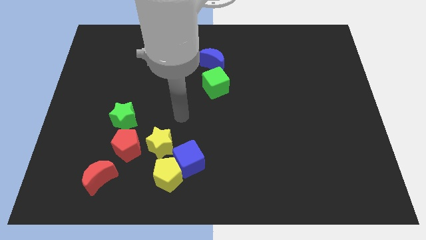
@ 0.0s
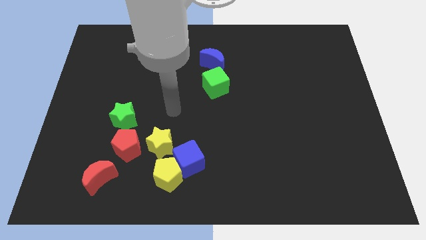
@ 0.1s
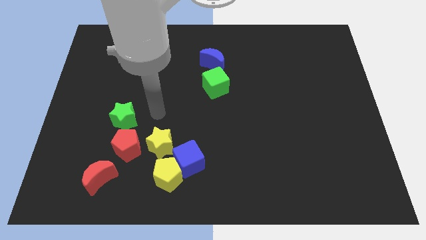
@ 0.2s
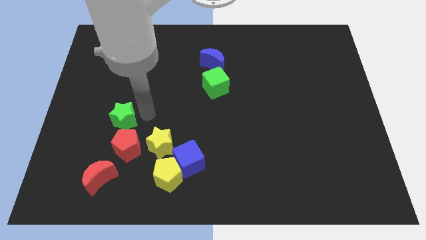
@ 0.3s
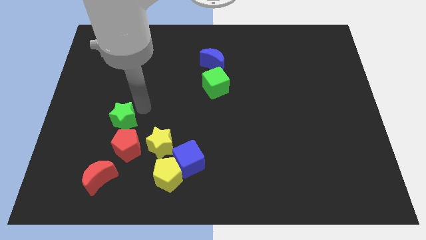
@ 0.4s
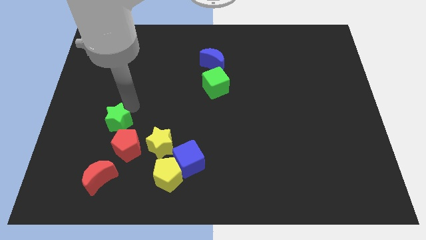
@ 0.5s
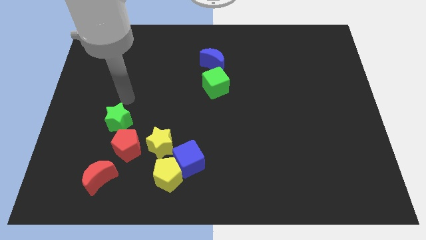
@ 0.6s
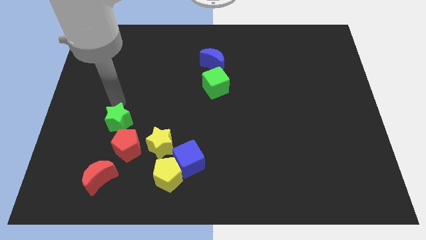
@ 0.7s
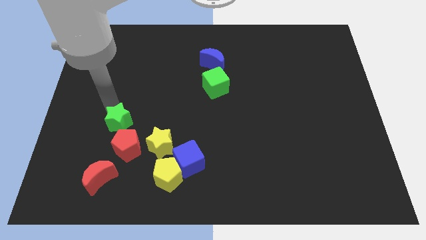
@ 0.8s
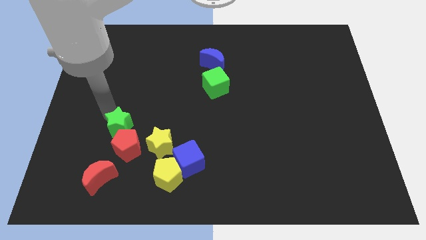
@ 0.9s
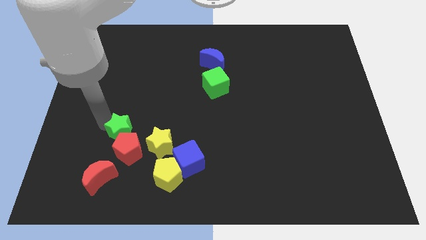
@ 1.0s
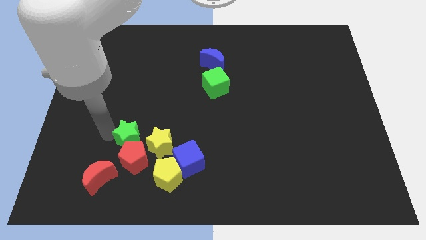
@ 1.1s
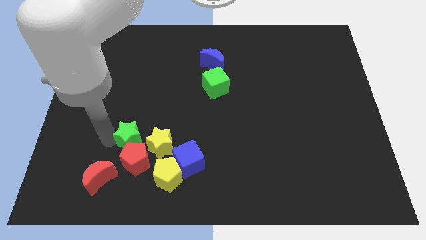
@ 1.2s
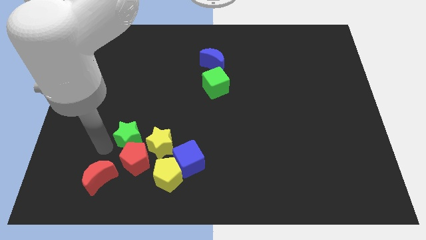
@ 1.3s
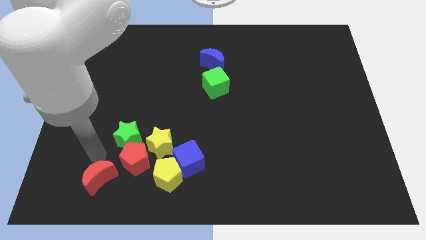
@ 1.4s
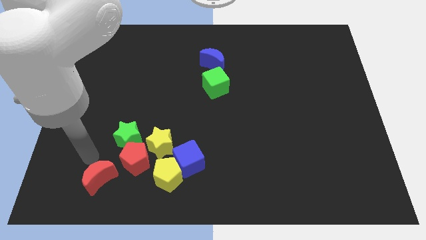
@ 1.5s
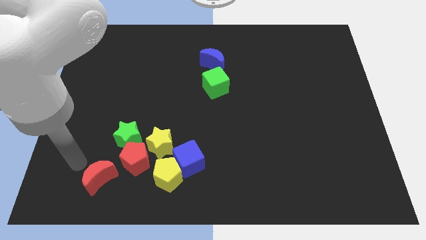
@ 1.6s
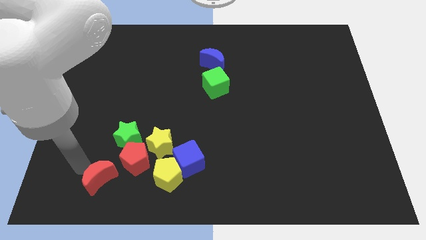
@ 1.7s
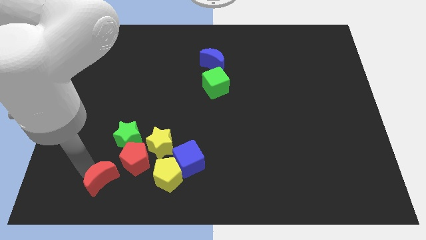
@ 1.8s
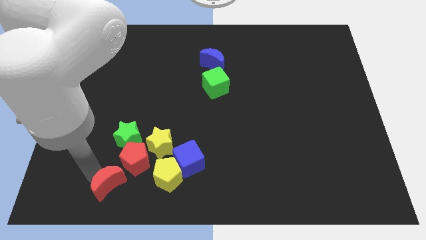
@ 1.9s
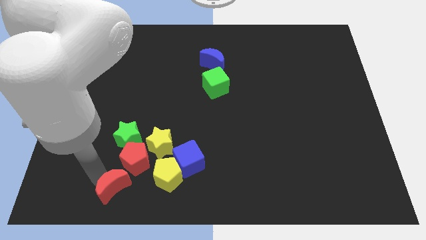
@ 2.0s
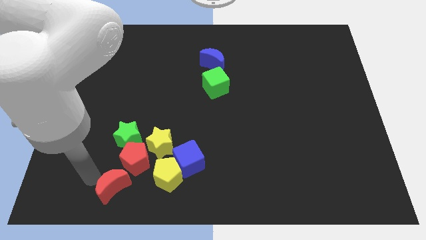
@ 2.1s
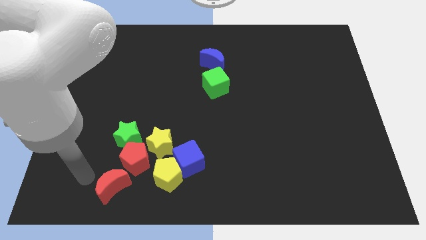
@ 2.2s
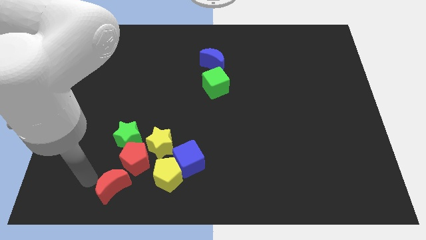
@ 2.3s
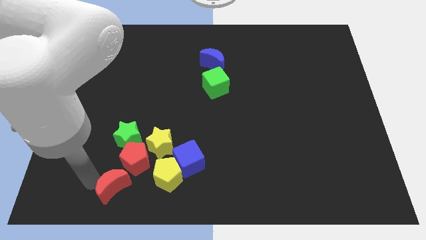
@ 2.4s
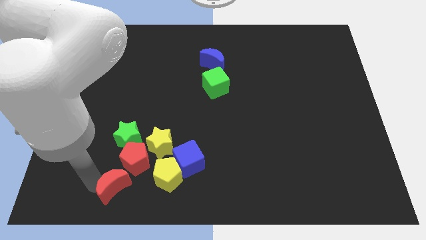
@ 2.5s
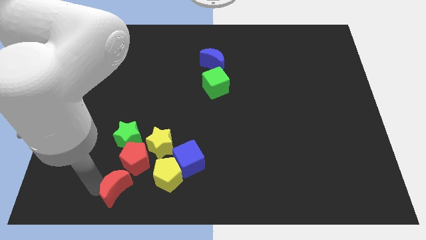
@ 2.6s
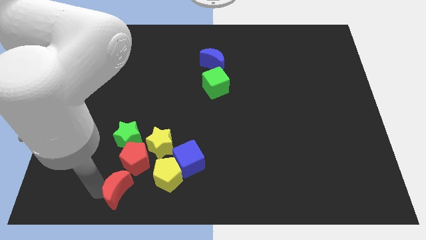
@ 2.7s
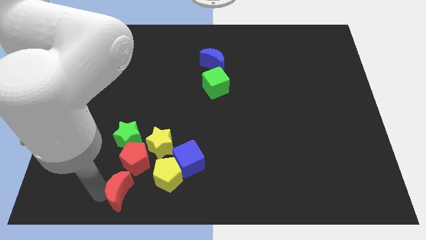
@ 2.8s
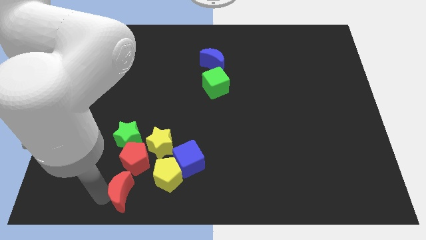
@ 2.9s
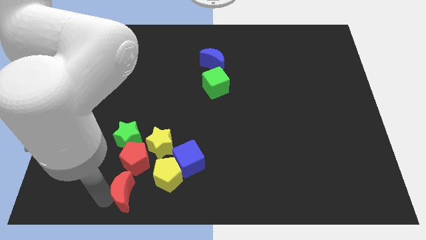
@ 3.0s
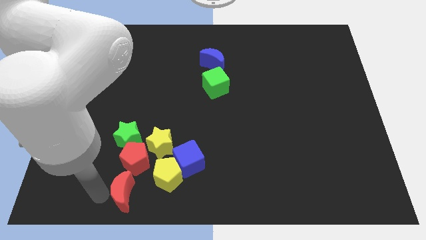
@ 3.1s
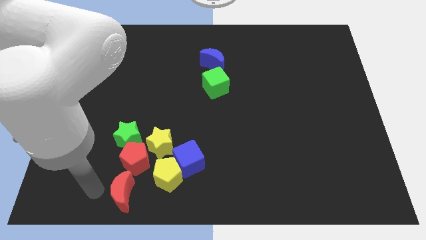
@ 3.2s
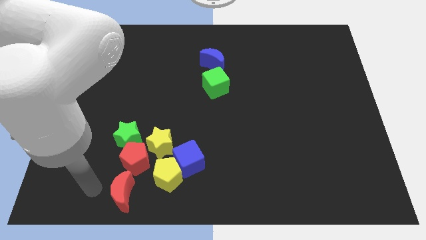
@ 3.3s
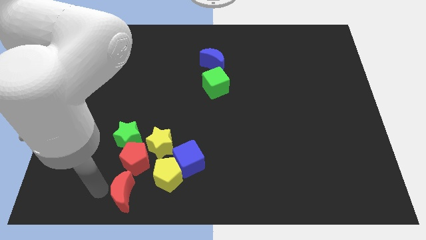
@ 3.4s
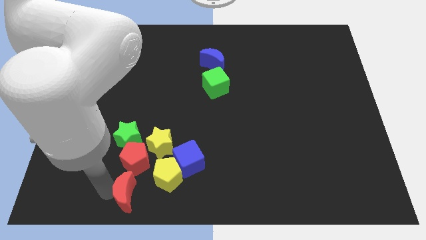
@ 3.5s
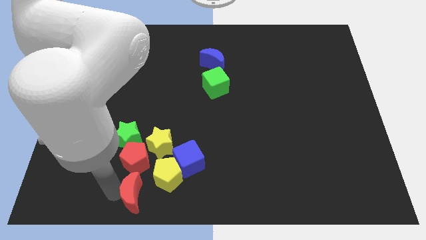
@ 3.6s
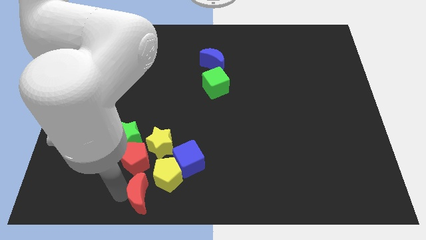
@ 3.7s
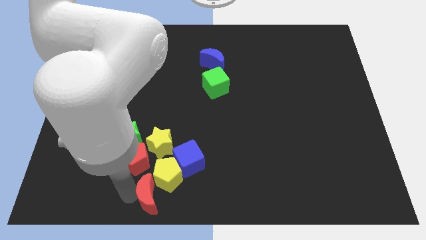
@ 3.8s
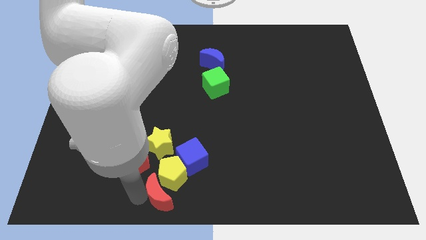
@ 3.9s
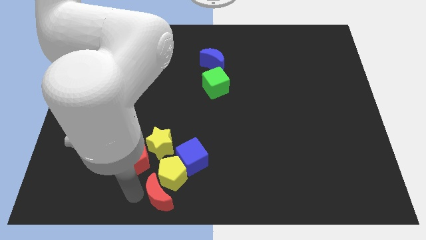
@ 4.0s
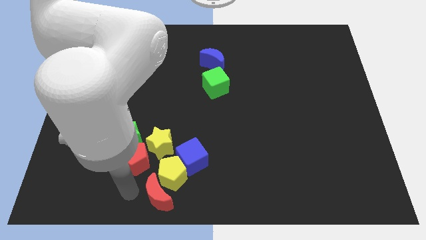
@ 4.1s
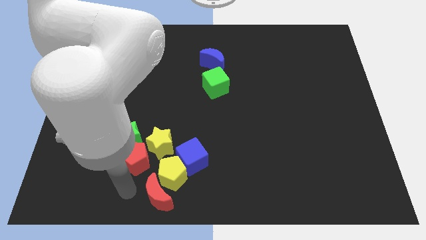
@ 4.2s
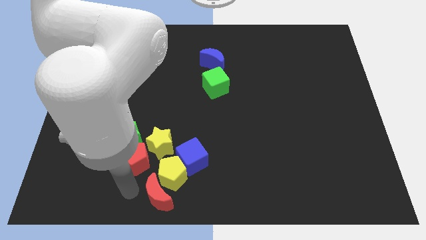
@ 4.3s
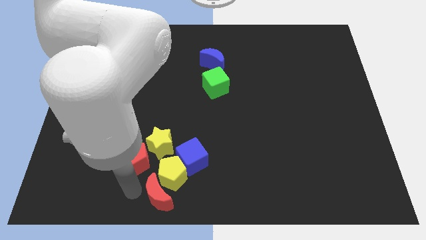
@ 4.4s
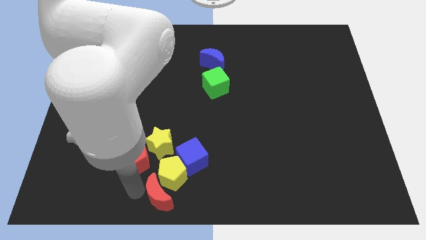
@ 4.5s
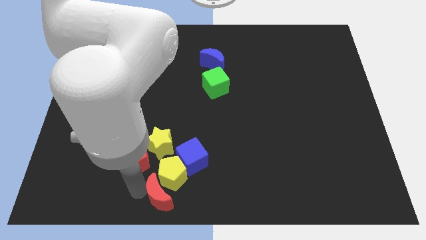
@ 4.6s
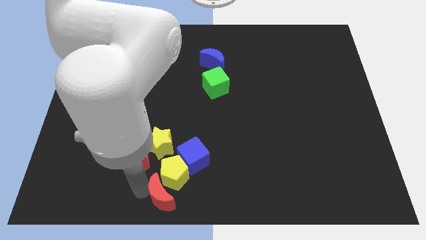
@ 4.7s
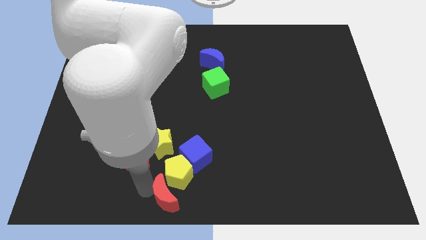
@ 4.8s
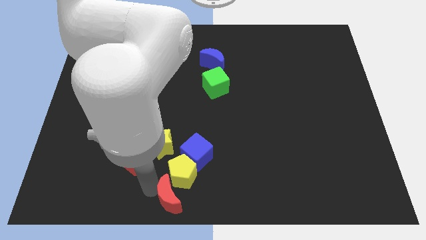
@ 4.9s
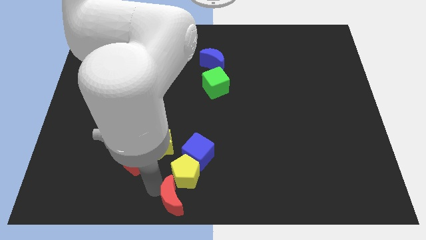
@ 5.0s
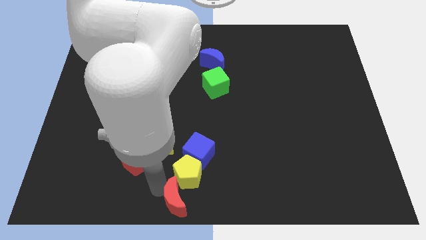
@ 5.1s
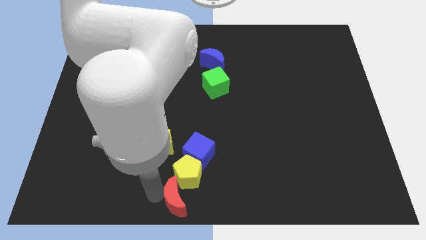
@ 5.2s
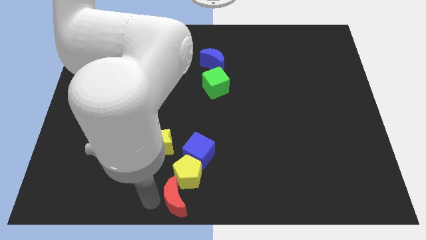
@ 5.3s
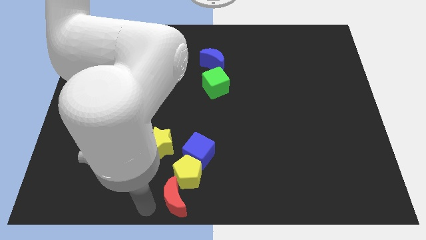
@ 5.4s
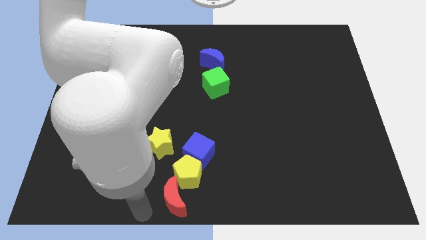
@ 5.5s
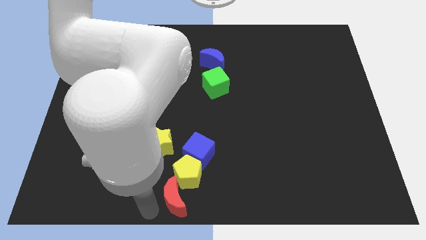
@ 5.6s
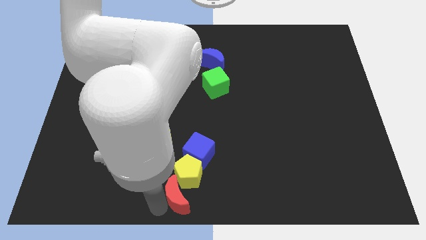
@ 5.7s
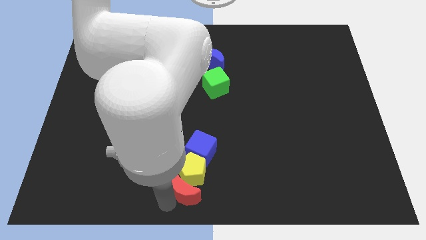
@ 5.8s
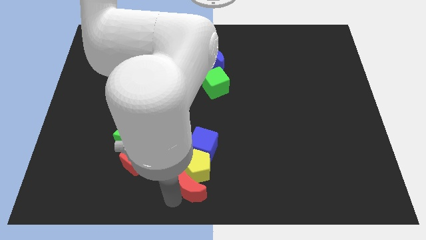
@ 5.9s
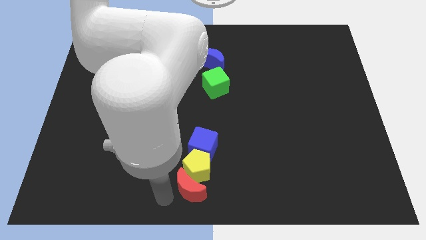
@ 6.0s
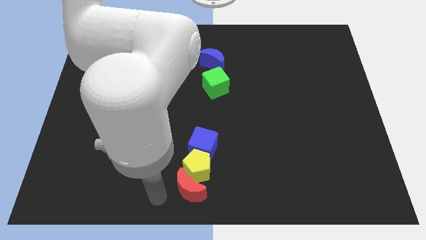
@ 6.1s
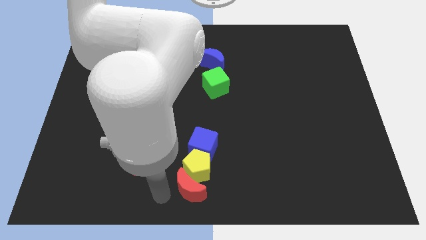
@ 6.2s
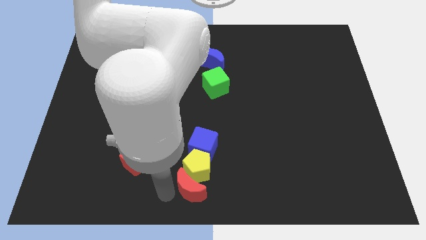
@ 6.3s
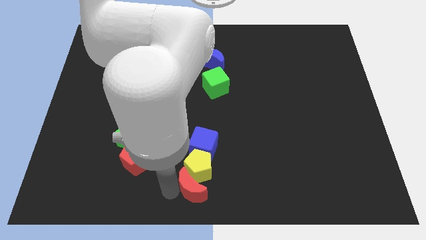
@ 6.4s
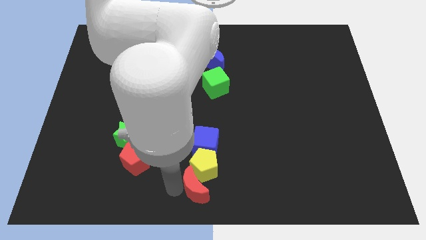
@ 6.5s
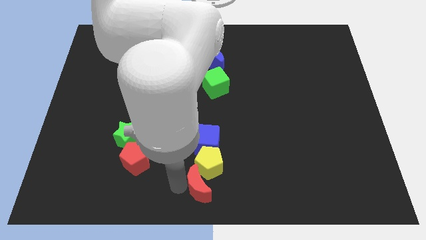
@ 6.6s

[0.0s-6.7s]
slide the red moon right

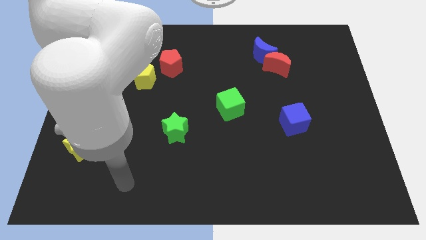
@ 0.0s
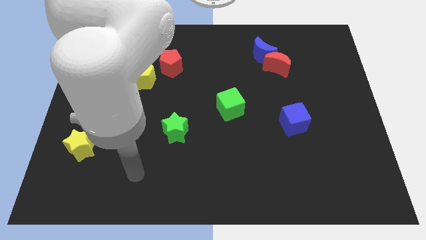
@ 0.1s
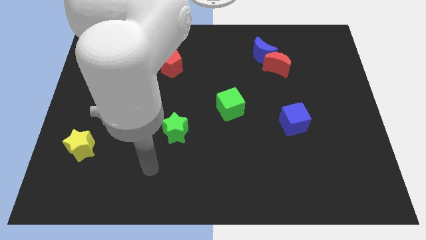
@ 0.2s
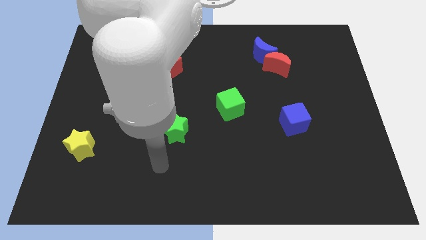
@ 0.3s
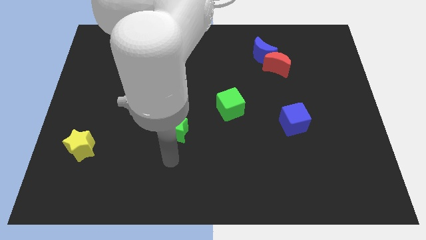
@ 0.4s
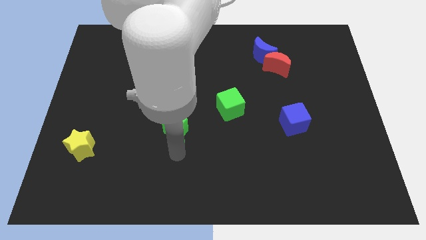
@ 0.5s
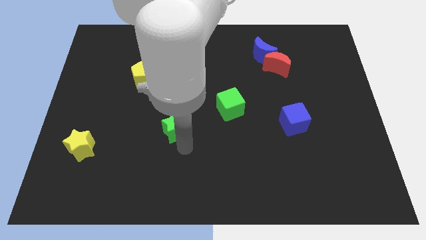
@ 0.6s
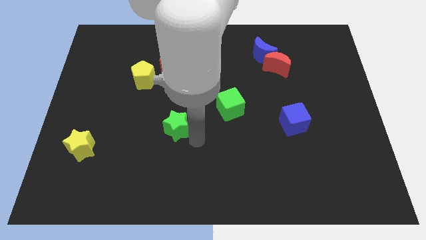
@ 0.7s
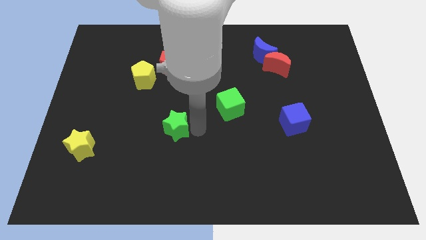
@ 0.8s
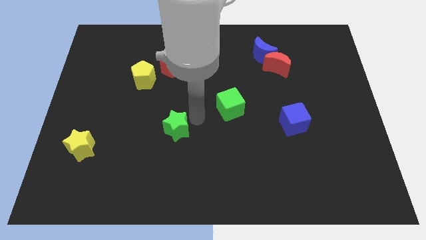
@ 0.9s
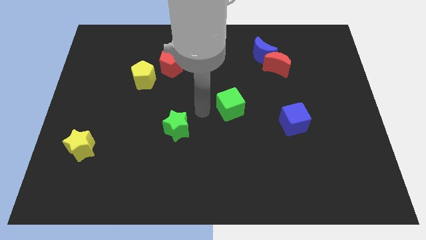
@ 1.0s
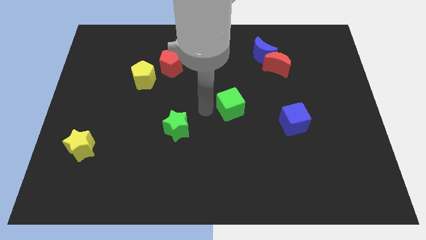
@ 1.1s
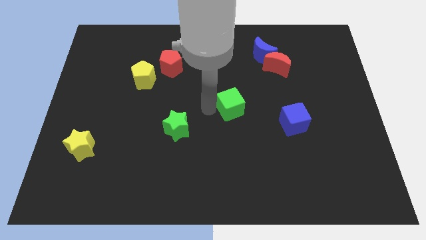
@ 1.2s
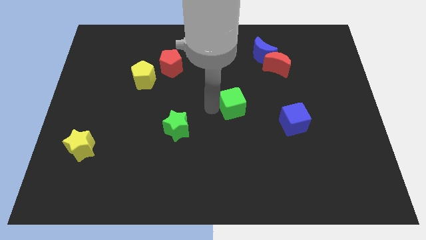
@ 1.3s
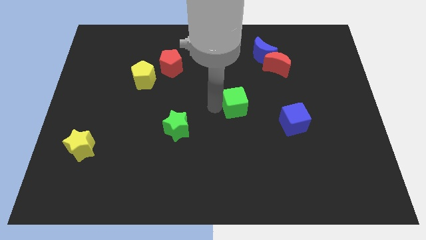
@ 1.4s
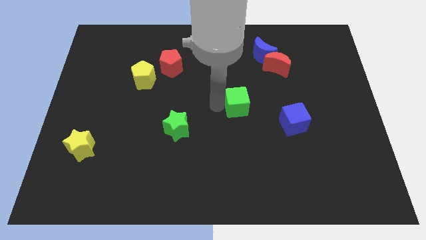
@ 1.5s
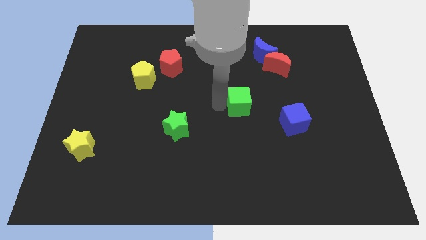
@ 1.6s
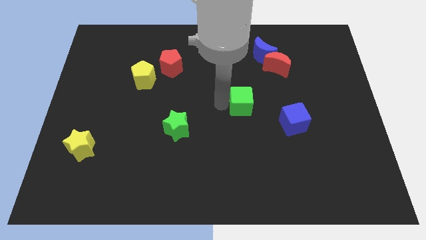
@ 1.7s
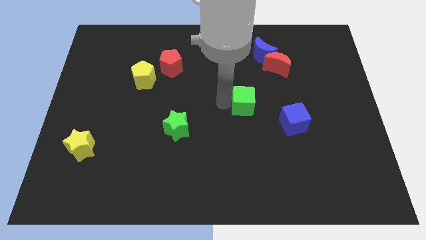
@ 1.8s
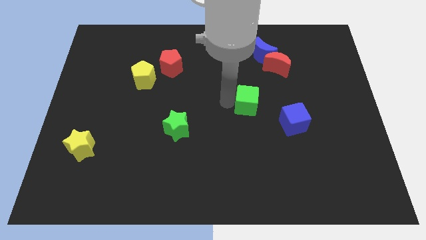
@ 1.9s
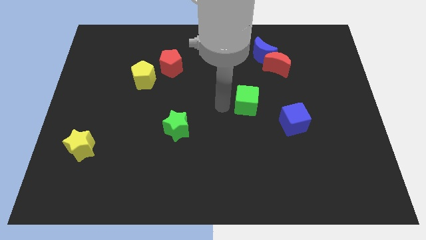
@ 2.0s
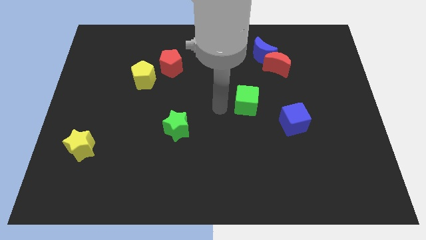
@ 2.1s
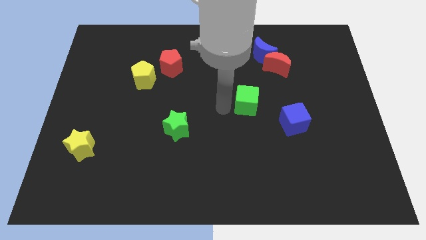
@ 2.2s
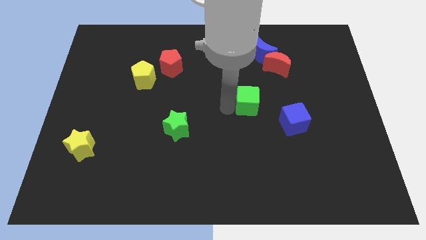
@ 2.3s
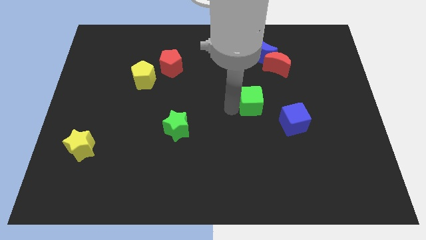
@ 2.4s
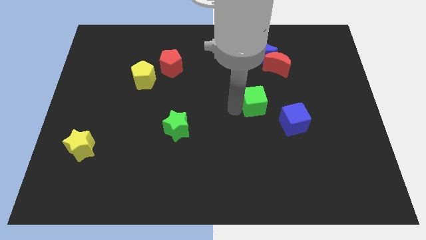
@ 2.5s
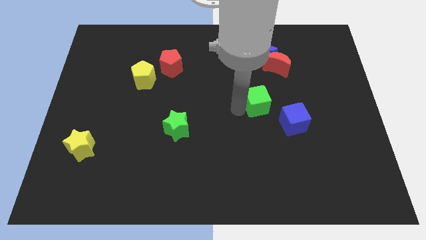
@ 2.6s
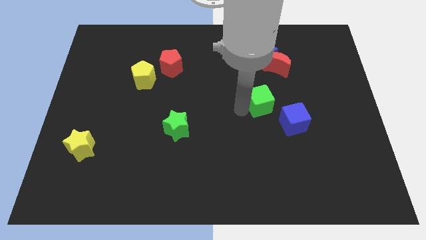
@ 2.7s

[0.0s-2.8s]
push the green cube slightly to the right
